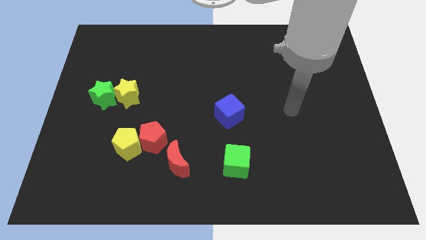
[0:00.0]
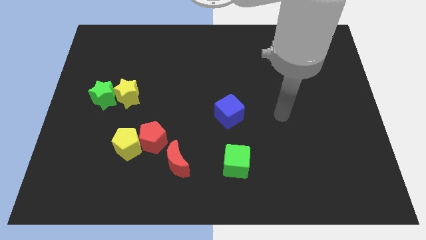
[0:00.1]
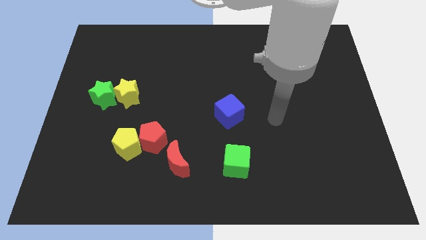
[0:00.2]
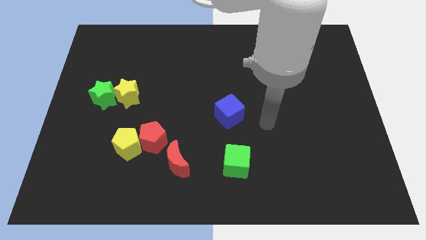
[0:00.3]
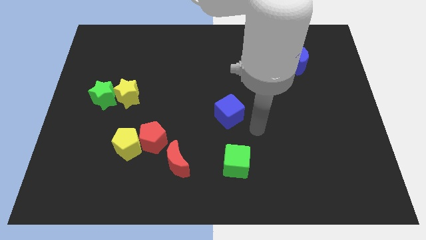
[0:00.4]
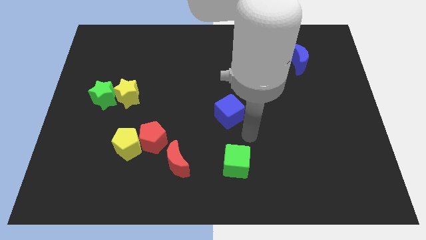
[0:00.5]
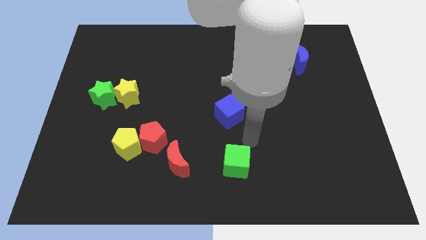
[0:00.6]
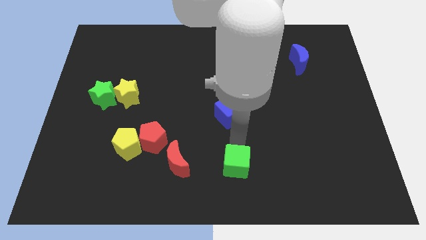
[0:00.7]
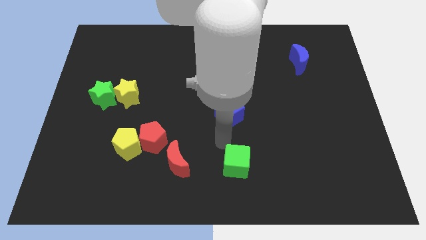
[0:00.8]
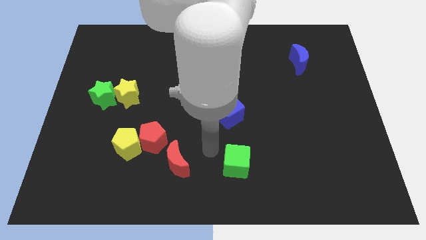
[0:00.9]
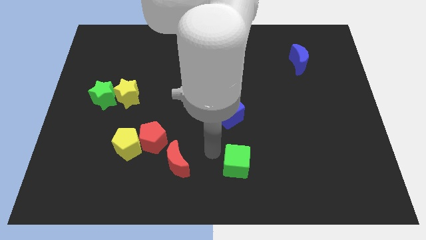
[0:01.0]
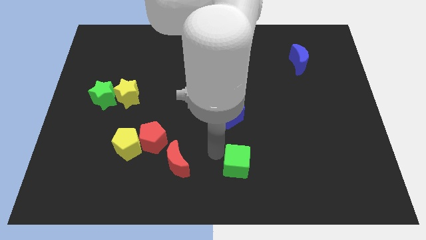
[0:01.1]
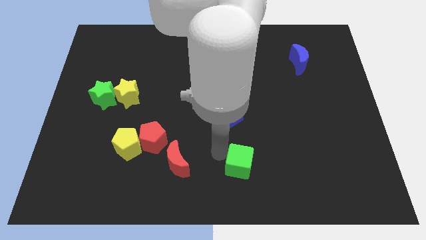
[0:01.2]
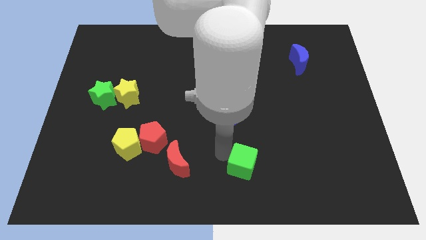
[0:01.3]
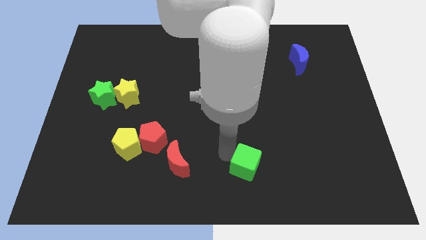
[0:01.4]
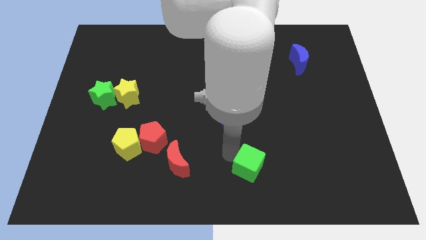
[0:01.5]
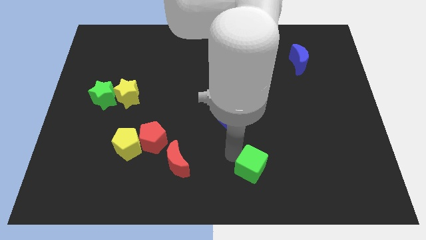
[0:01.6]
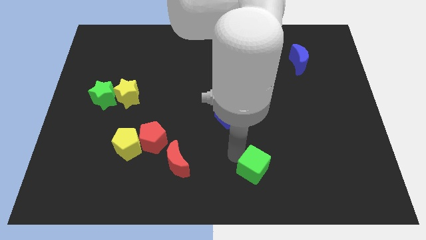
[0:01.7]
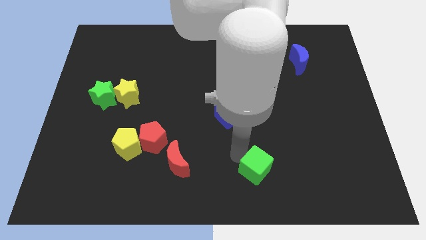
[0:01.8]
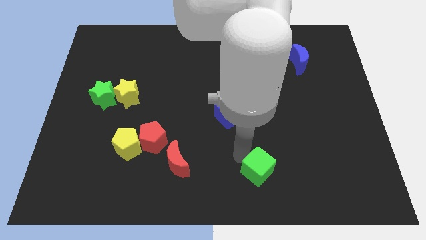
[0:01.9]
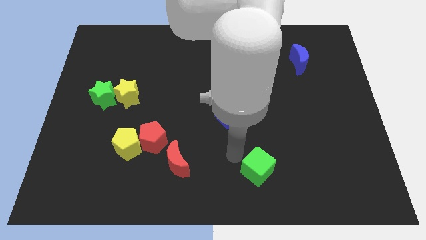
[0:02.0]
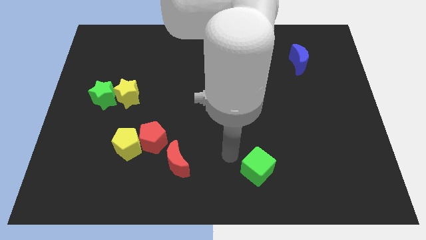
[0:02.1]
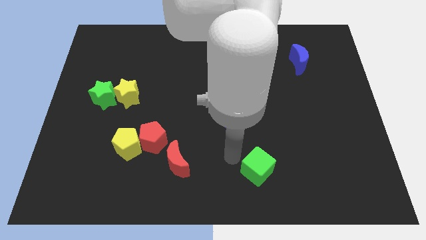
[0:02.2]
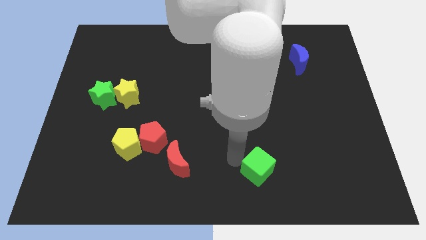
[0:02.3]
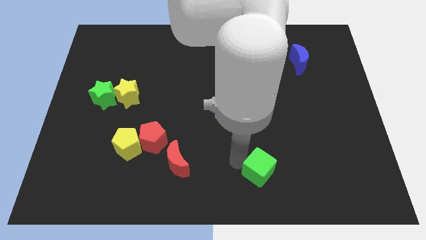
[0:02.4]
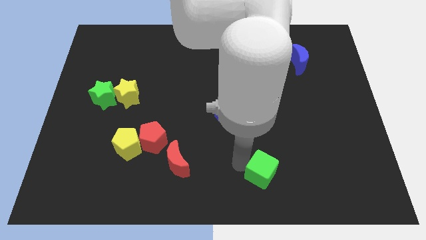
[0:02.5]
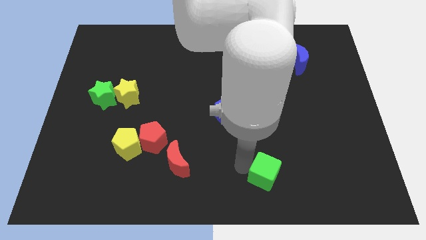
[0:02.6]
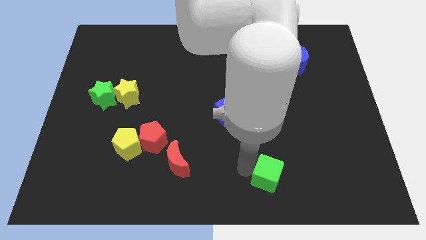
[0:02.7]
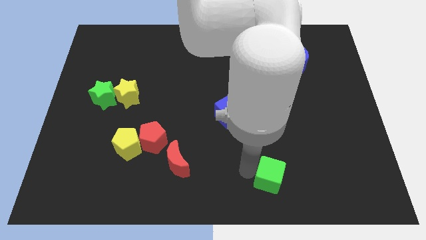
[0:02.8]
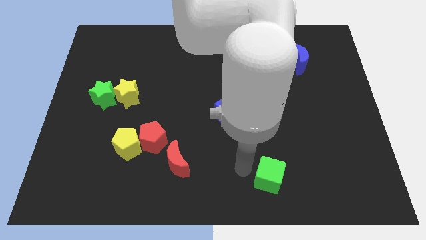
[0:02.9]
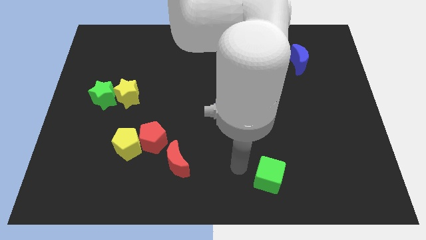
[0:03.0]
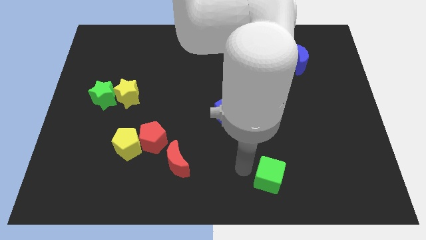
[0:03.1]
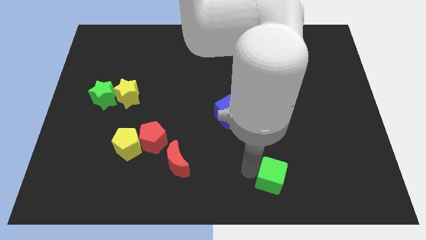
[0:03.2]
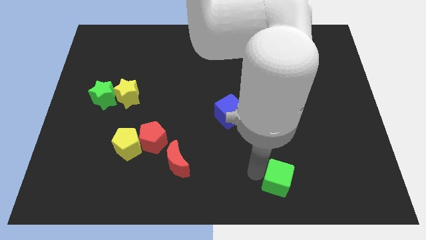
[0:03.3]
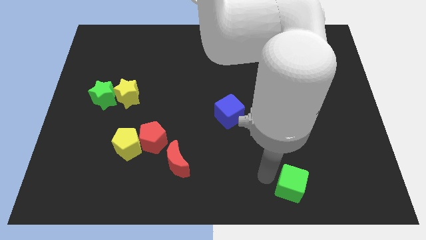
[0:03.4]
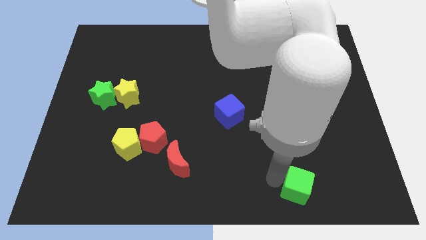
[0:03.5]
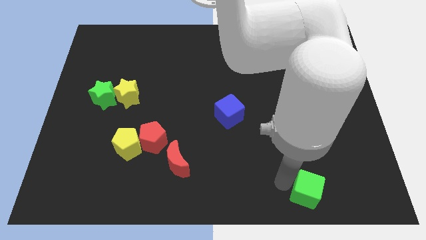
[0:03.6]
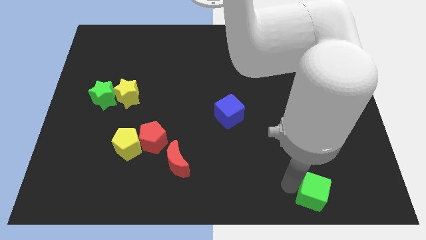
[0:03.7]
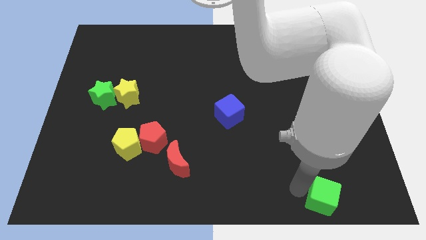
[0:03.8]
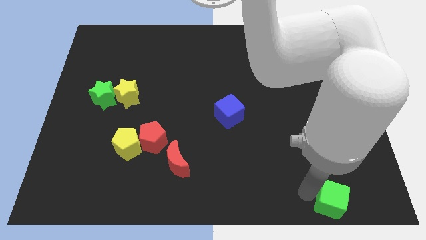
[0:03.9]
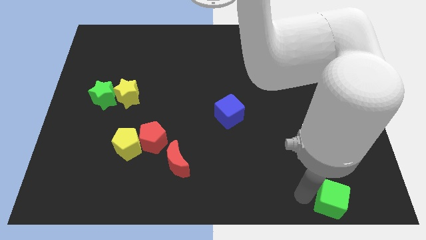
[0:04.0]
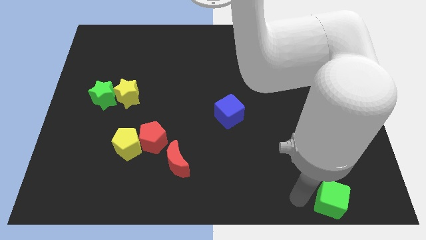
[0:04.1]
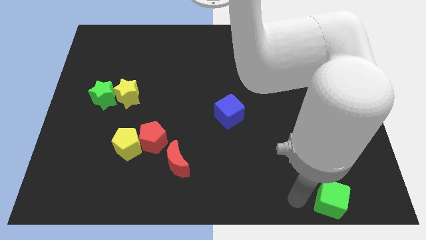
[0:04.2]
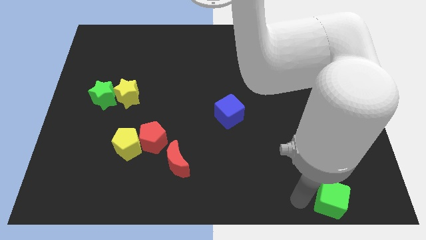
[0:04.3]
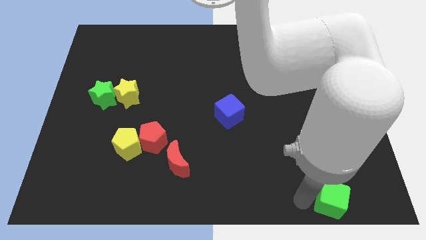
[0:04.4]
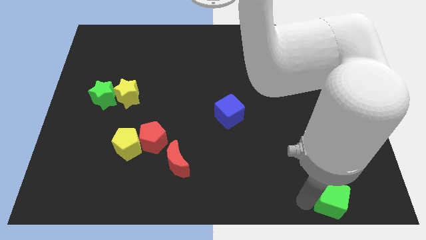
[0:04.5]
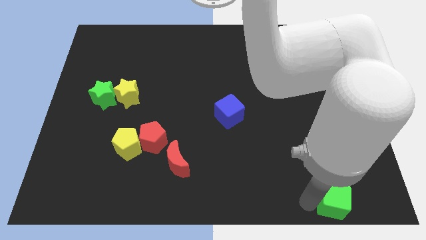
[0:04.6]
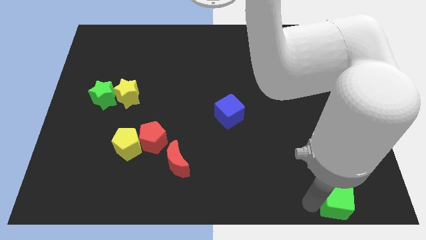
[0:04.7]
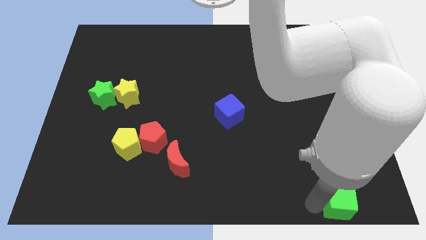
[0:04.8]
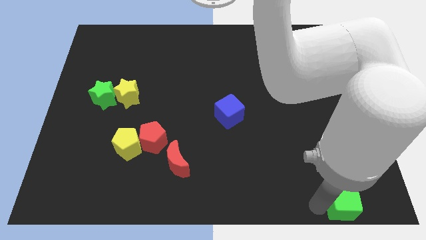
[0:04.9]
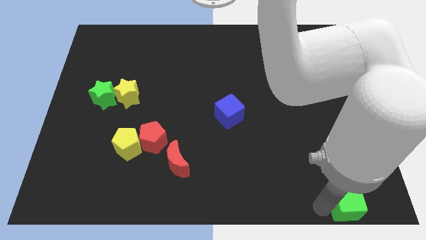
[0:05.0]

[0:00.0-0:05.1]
push the green cube to the bottom right of the board
